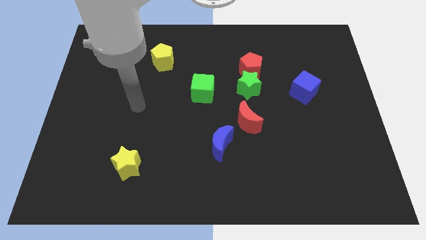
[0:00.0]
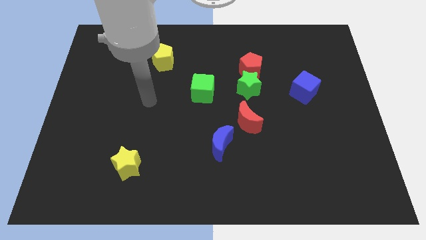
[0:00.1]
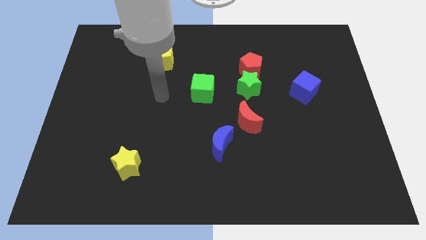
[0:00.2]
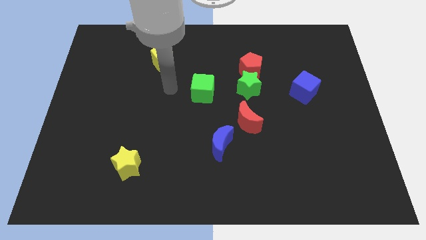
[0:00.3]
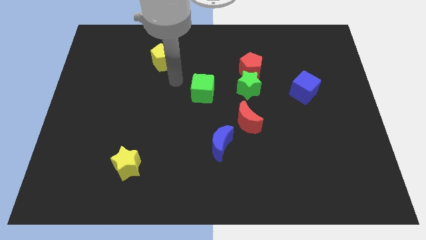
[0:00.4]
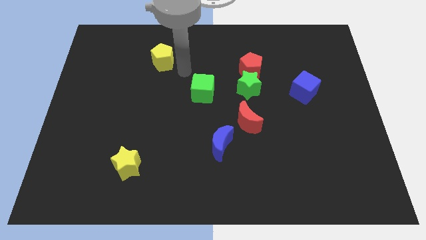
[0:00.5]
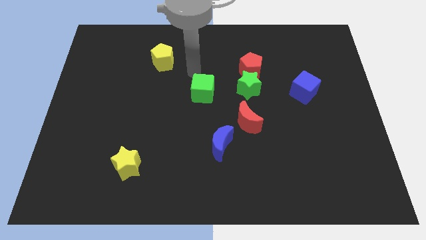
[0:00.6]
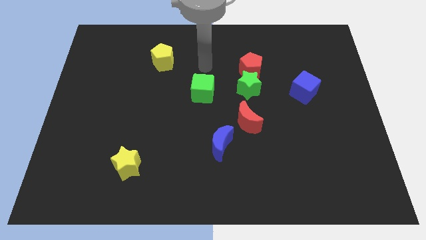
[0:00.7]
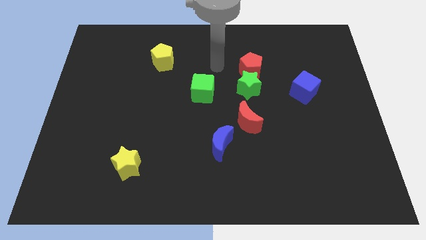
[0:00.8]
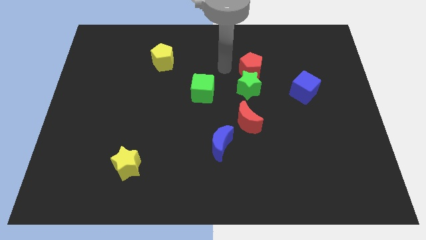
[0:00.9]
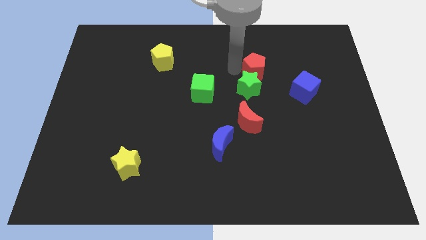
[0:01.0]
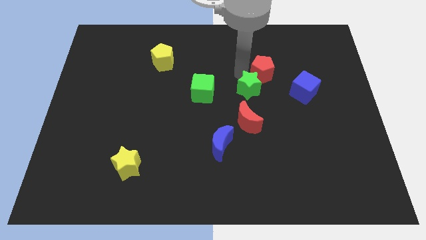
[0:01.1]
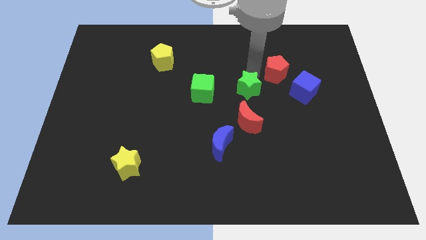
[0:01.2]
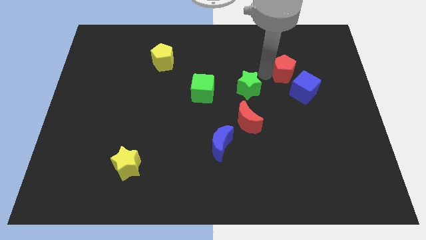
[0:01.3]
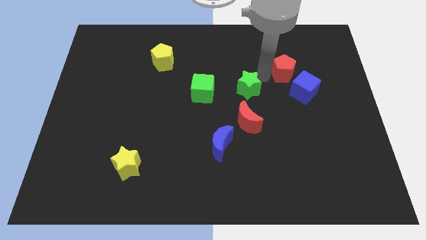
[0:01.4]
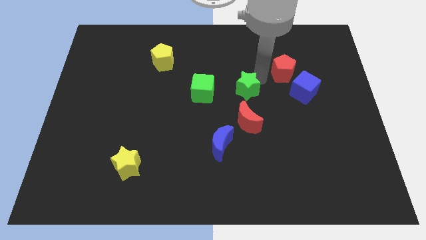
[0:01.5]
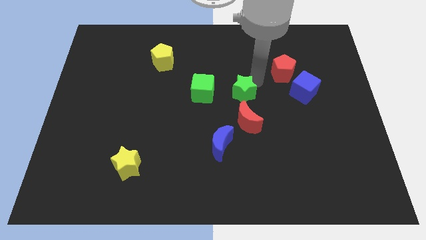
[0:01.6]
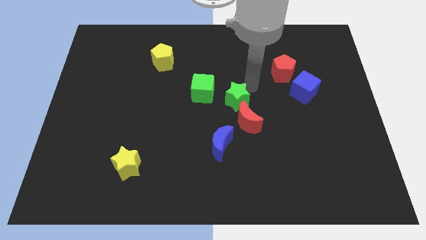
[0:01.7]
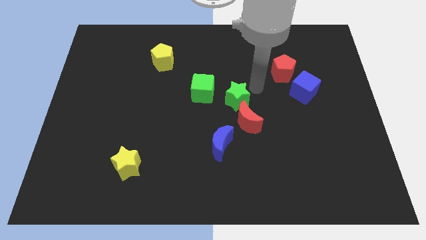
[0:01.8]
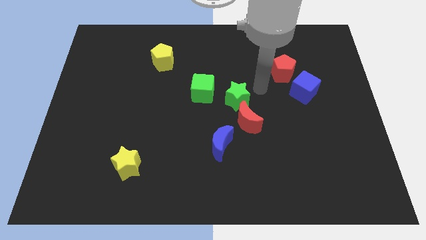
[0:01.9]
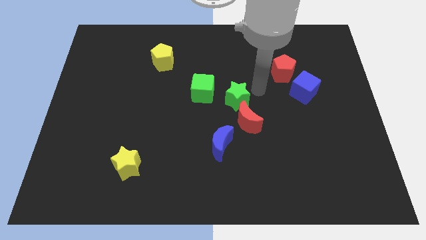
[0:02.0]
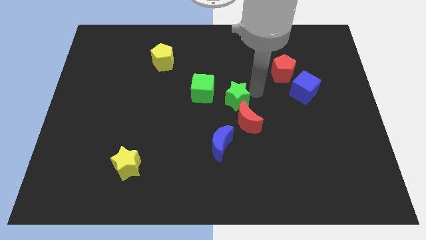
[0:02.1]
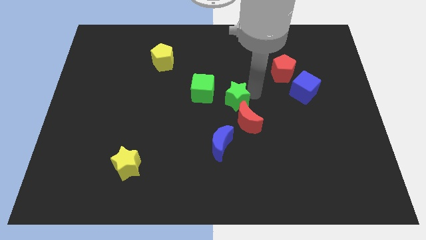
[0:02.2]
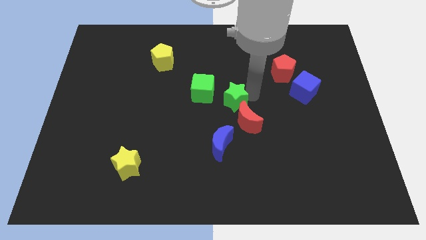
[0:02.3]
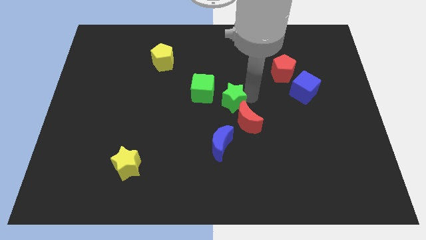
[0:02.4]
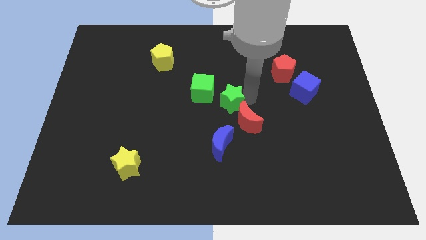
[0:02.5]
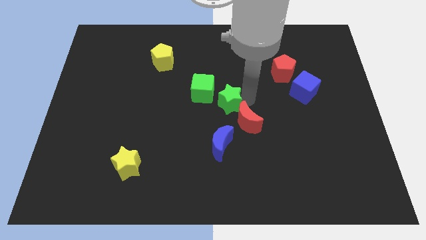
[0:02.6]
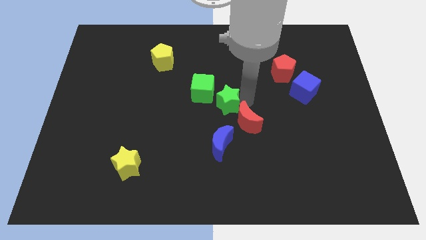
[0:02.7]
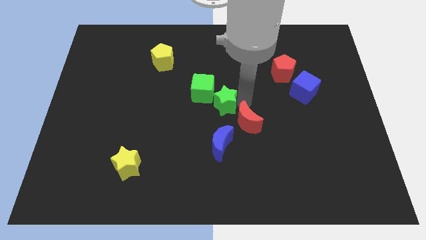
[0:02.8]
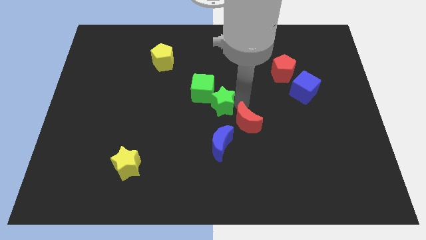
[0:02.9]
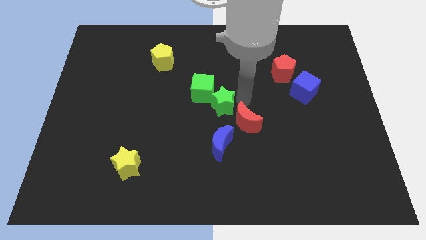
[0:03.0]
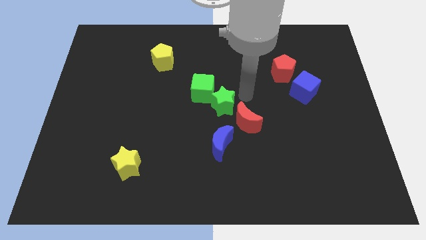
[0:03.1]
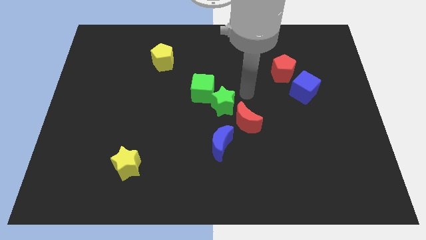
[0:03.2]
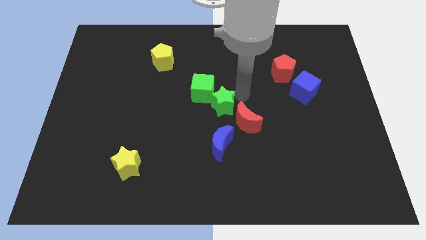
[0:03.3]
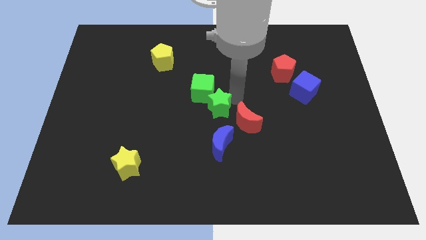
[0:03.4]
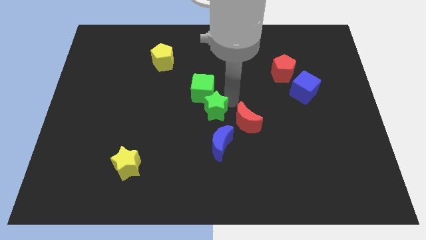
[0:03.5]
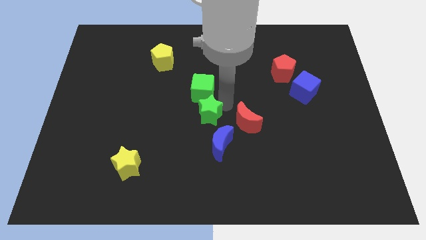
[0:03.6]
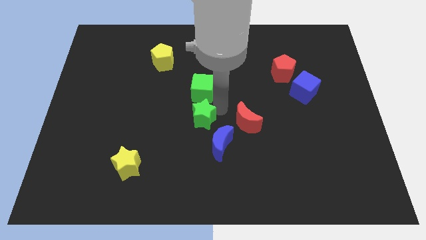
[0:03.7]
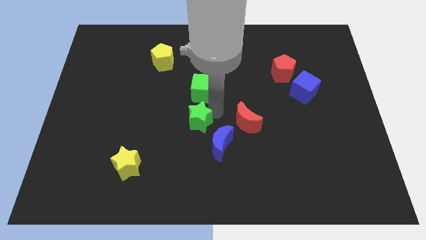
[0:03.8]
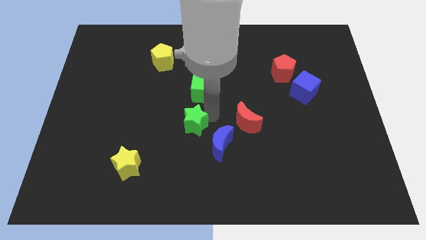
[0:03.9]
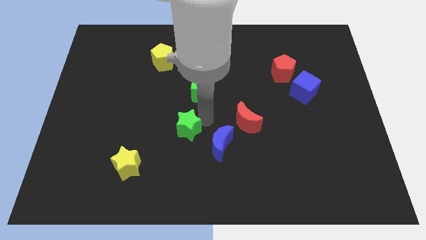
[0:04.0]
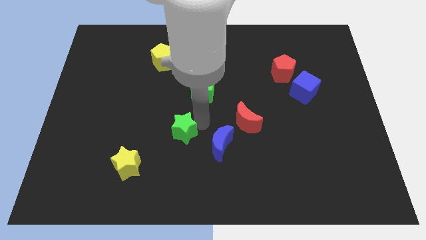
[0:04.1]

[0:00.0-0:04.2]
push the green star down and then to the left

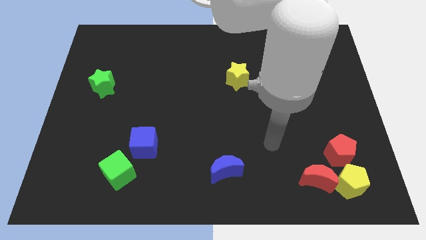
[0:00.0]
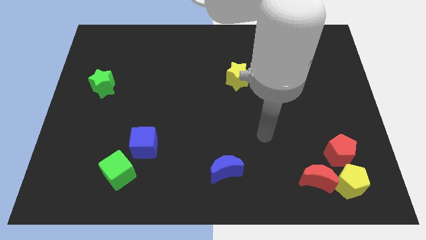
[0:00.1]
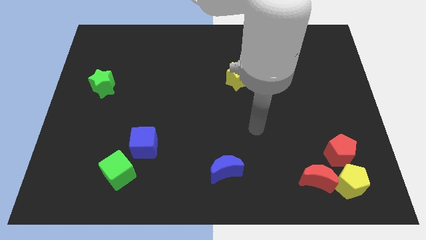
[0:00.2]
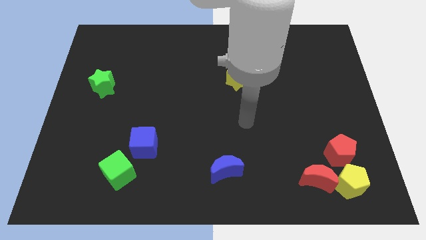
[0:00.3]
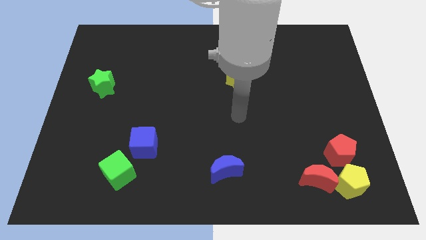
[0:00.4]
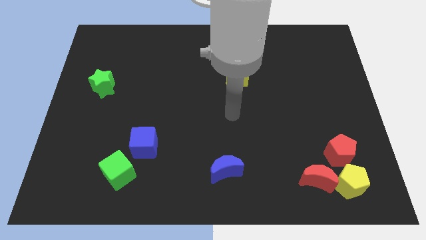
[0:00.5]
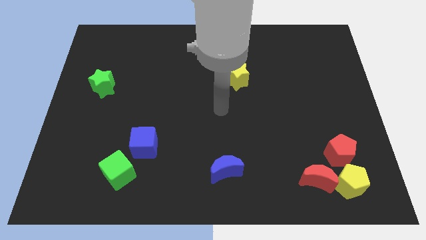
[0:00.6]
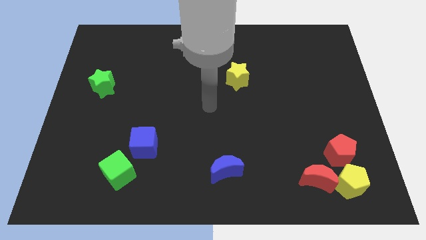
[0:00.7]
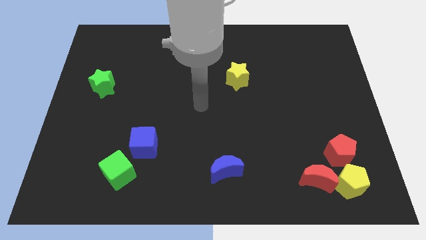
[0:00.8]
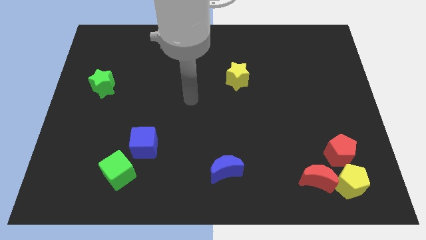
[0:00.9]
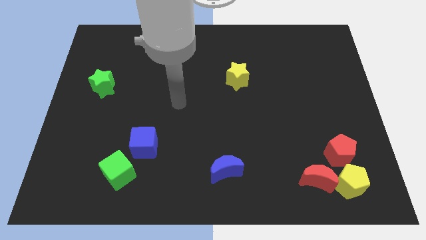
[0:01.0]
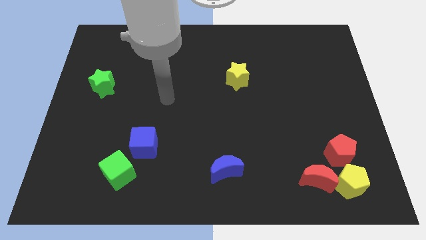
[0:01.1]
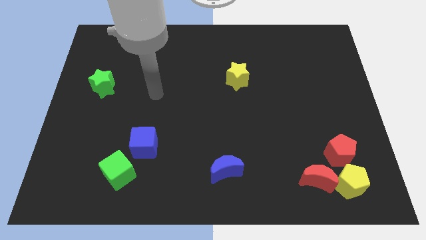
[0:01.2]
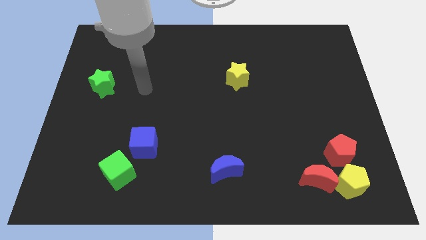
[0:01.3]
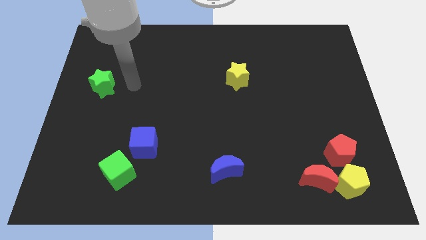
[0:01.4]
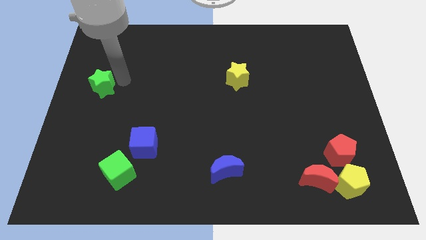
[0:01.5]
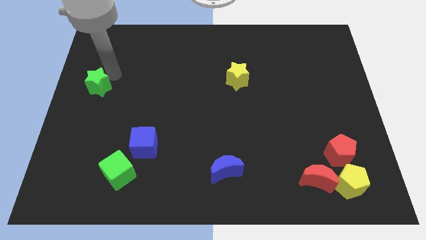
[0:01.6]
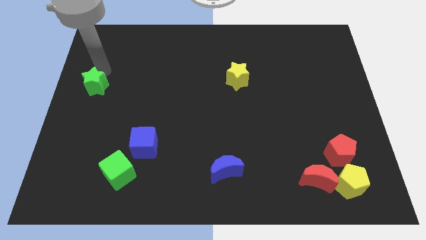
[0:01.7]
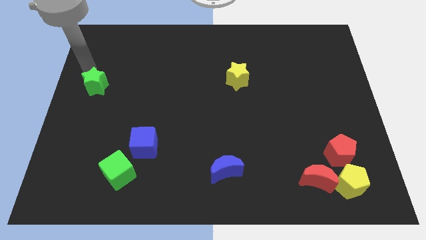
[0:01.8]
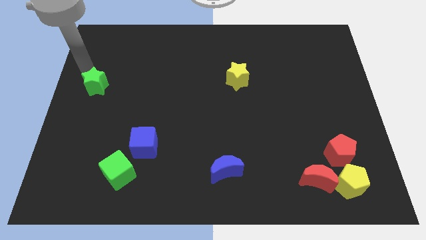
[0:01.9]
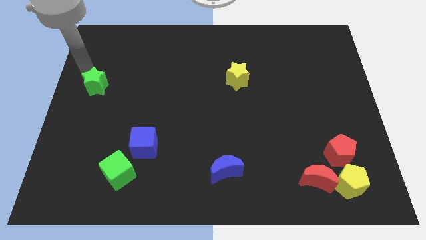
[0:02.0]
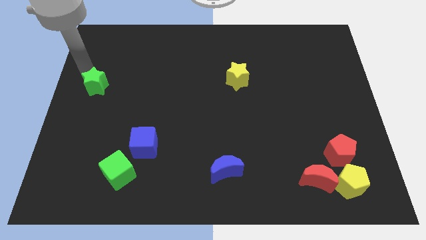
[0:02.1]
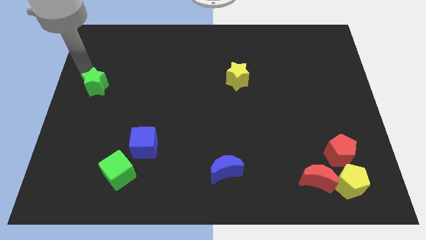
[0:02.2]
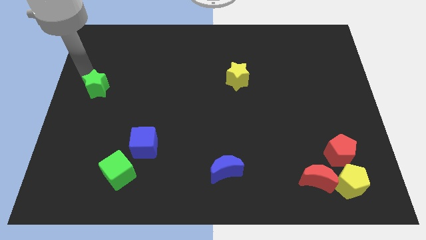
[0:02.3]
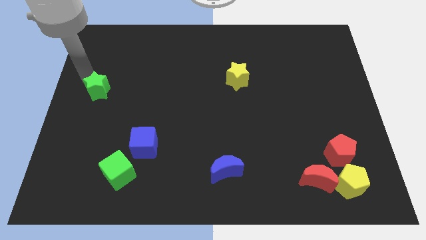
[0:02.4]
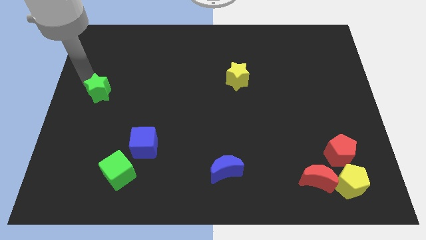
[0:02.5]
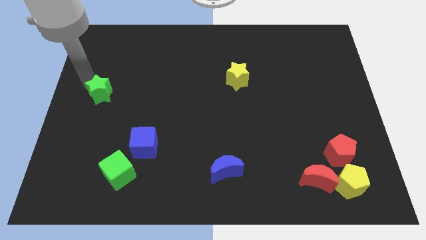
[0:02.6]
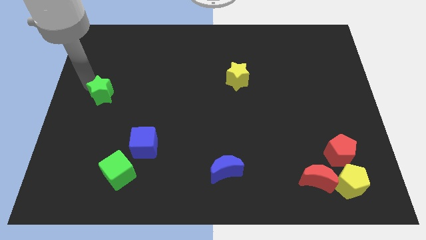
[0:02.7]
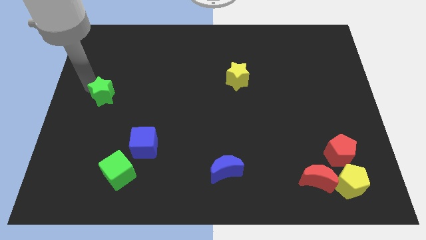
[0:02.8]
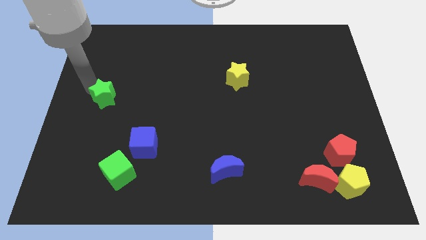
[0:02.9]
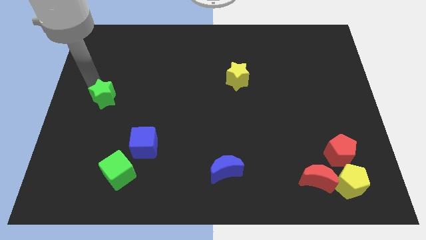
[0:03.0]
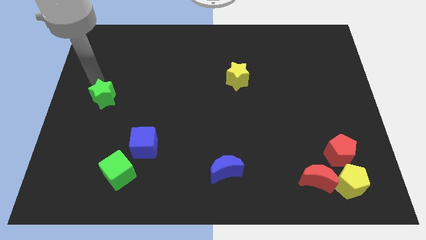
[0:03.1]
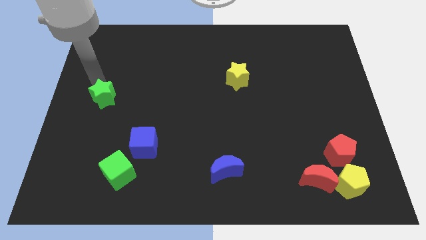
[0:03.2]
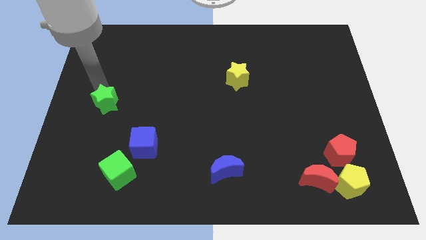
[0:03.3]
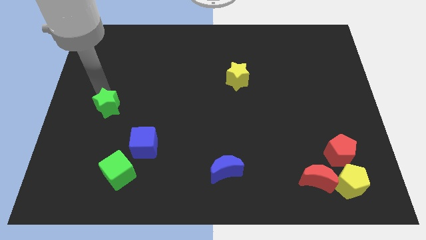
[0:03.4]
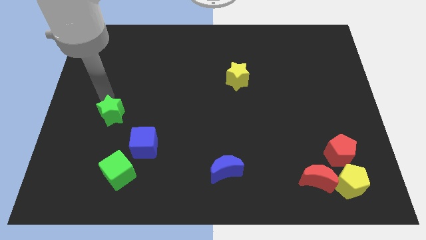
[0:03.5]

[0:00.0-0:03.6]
slide the green star a bit downwards
